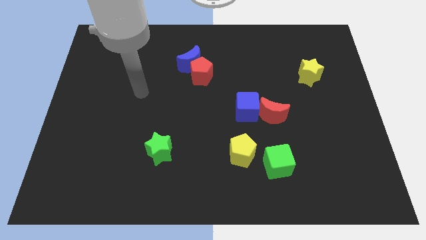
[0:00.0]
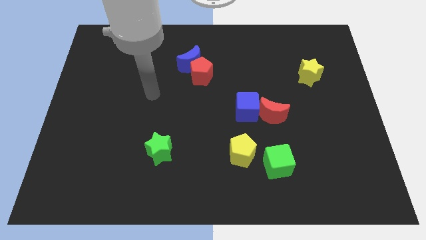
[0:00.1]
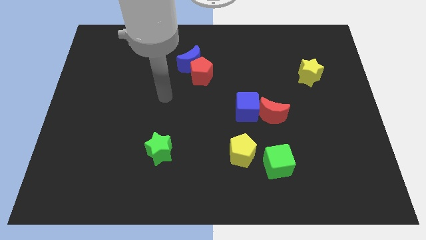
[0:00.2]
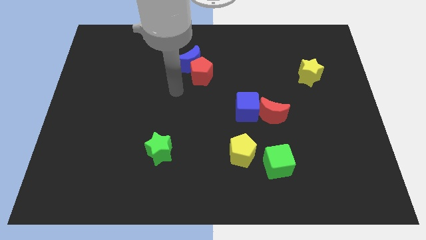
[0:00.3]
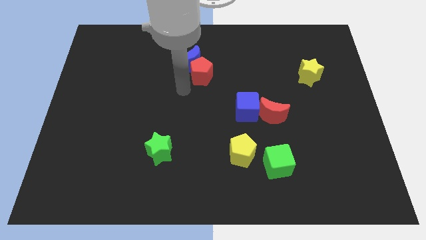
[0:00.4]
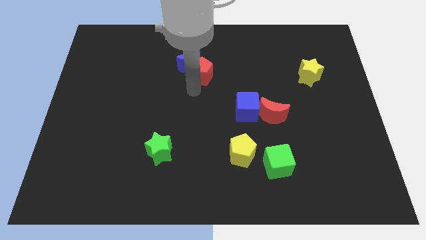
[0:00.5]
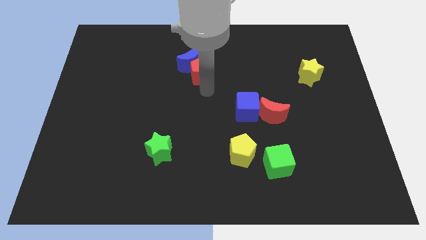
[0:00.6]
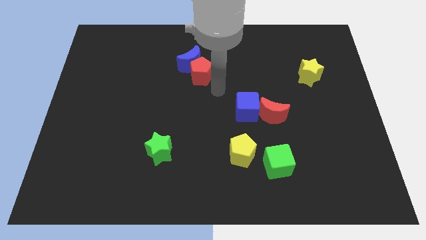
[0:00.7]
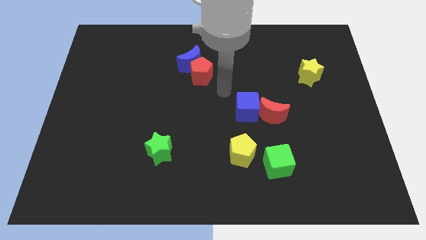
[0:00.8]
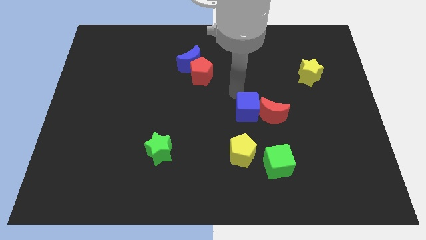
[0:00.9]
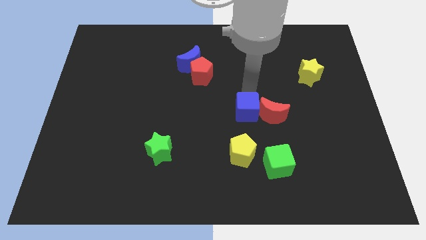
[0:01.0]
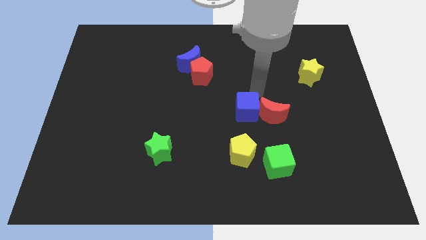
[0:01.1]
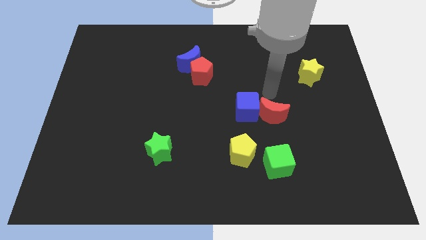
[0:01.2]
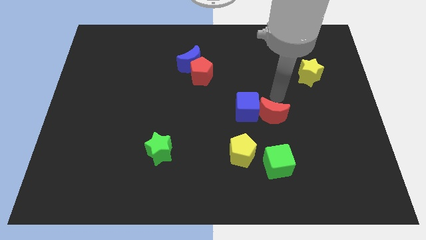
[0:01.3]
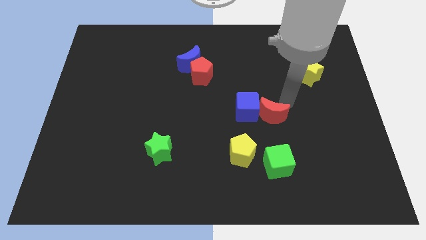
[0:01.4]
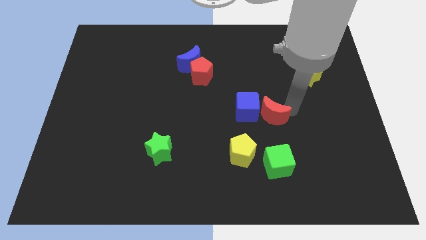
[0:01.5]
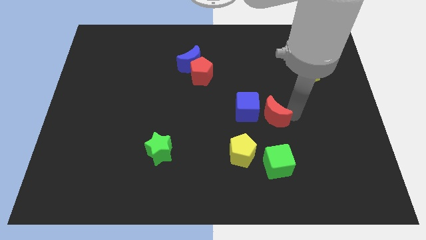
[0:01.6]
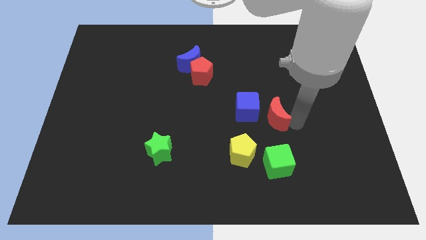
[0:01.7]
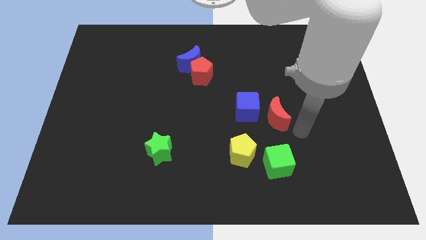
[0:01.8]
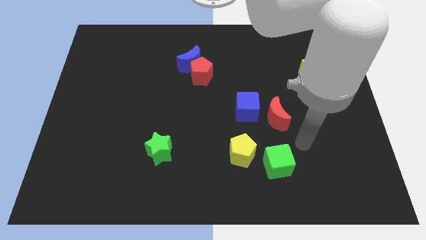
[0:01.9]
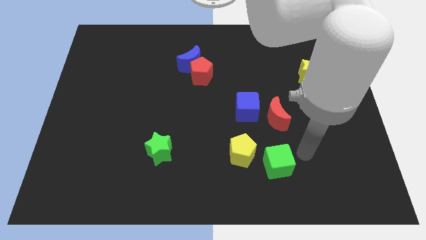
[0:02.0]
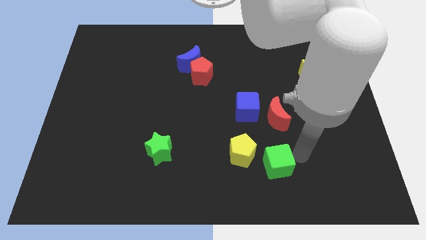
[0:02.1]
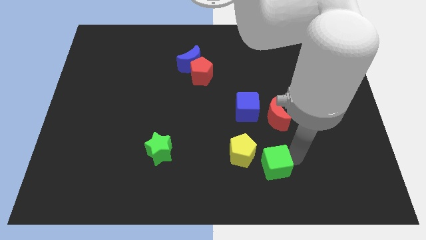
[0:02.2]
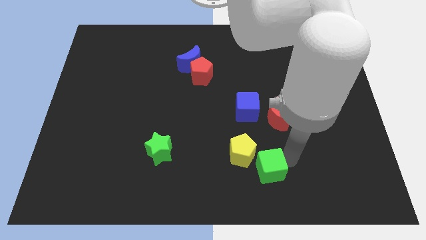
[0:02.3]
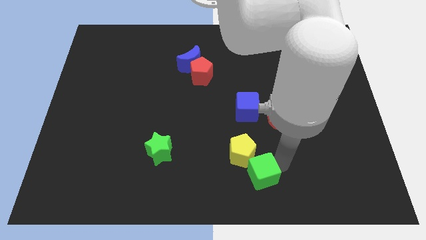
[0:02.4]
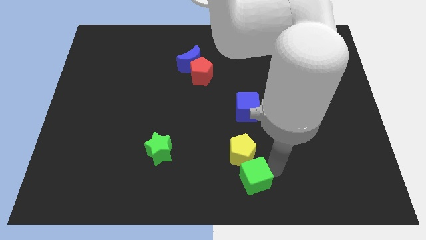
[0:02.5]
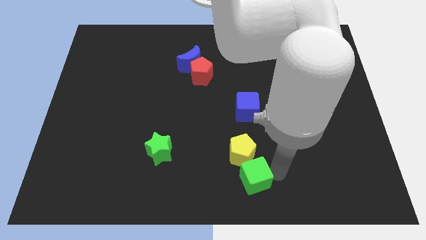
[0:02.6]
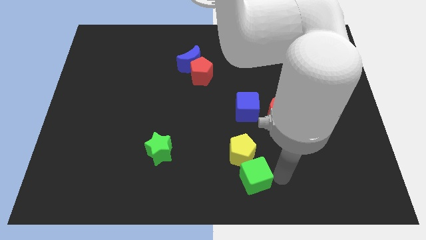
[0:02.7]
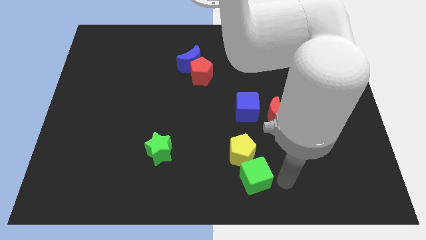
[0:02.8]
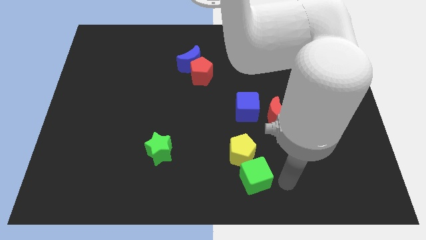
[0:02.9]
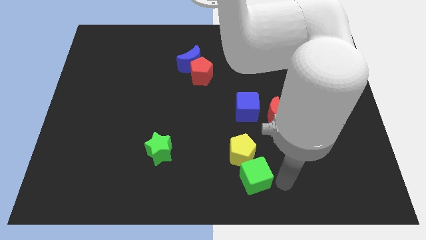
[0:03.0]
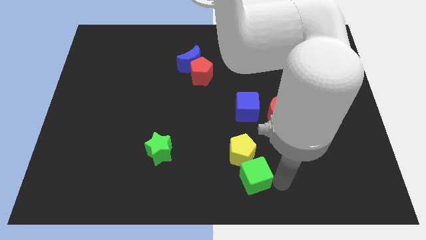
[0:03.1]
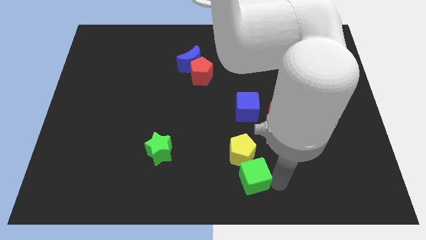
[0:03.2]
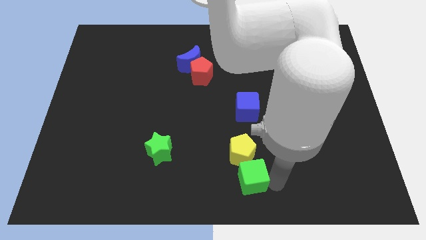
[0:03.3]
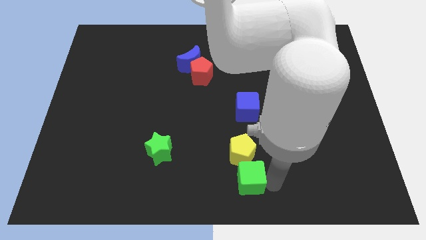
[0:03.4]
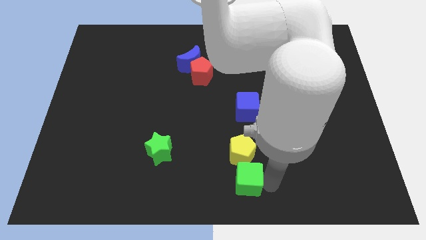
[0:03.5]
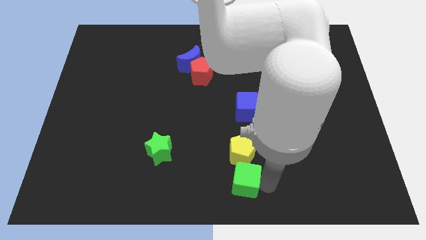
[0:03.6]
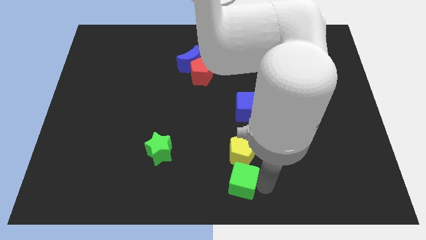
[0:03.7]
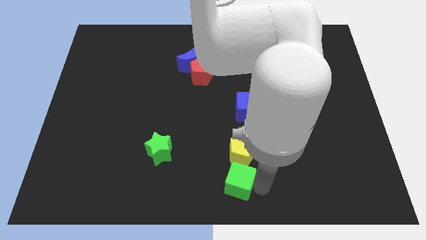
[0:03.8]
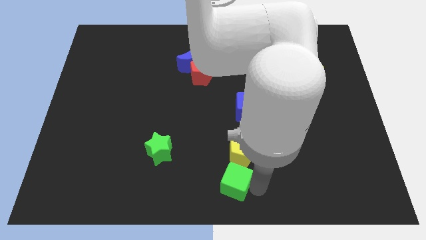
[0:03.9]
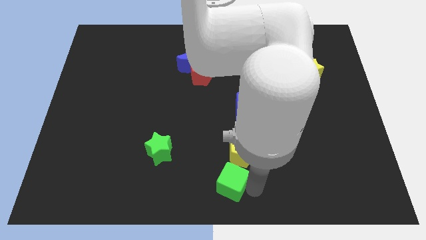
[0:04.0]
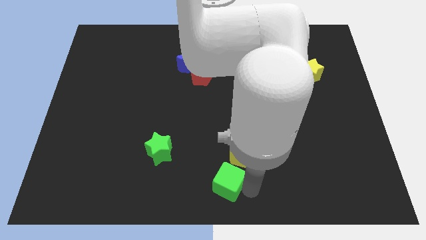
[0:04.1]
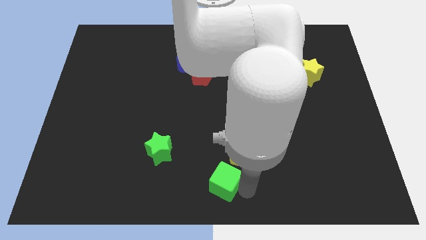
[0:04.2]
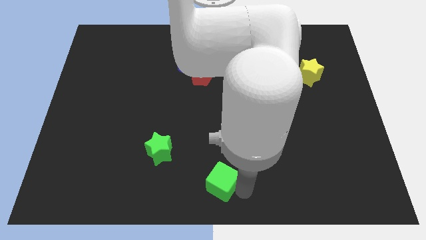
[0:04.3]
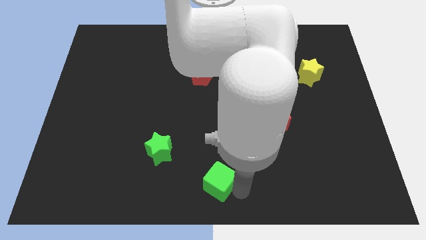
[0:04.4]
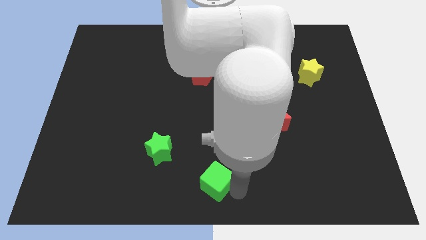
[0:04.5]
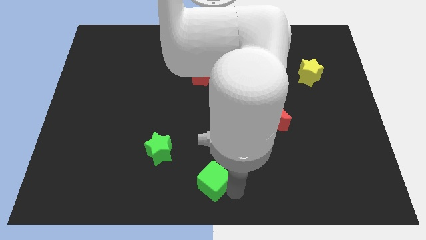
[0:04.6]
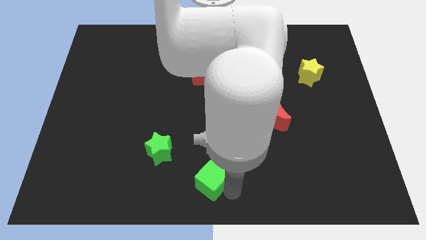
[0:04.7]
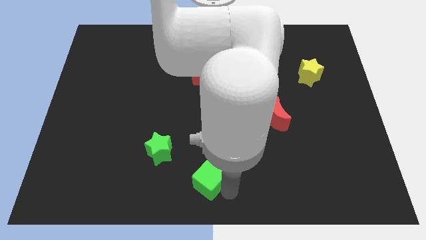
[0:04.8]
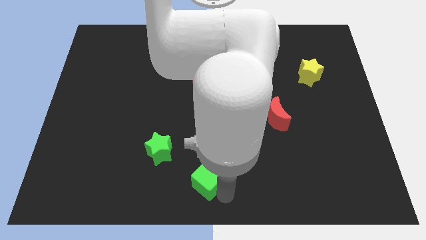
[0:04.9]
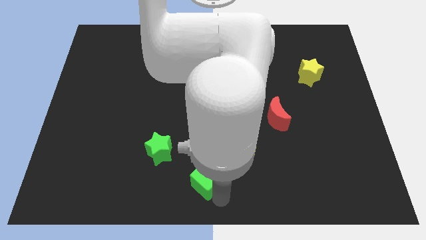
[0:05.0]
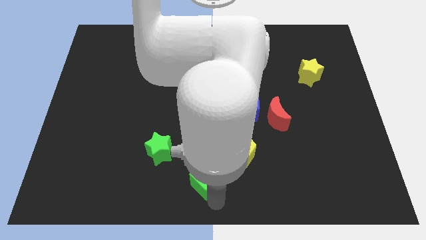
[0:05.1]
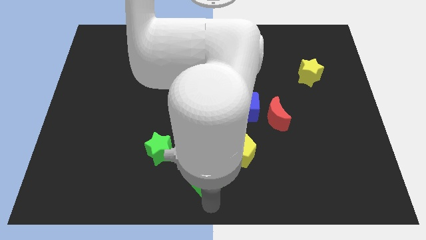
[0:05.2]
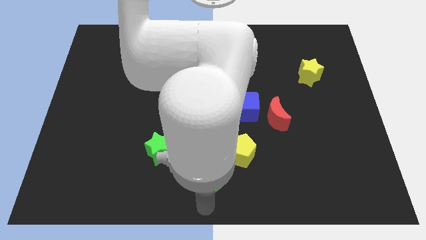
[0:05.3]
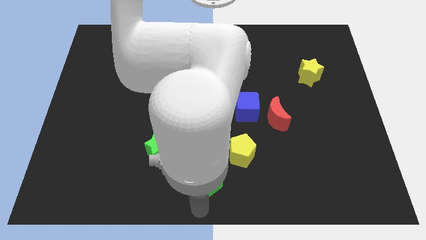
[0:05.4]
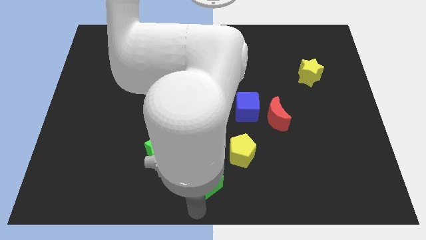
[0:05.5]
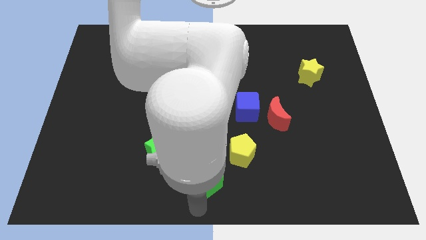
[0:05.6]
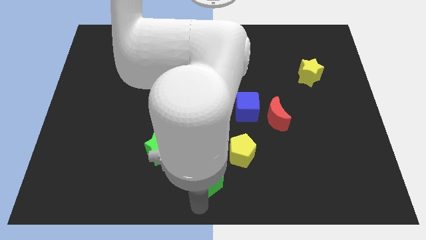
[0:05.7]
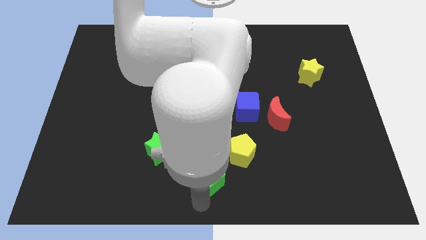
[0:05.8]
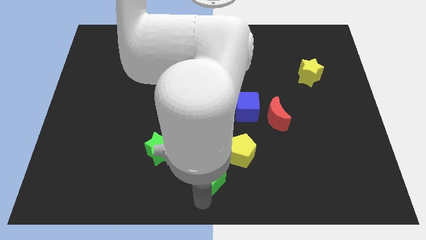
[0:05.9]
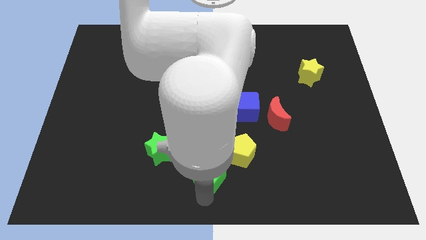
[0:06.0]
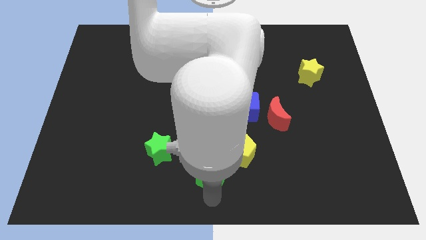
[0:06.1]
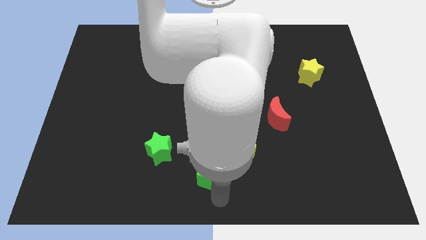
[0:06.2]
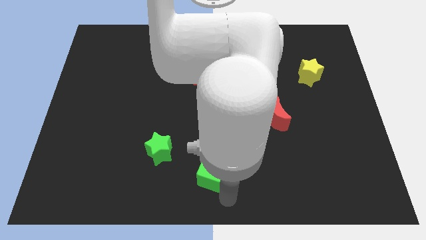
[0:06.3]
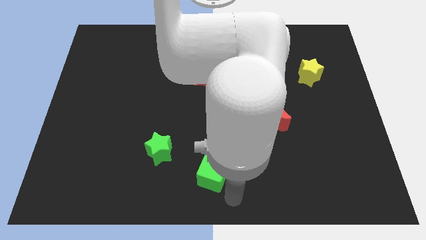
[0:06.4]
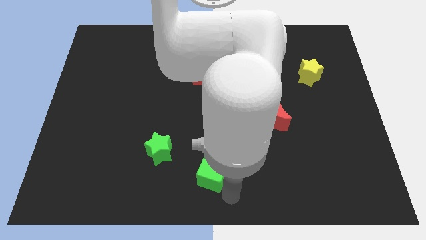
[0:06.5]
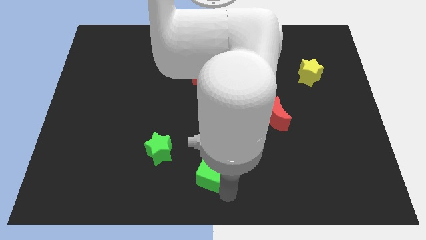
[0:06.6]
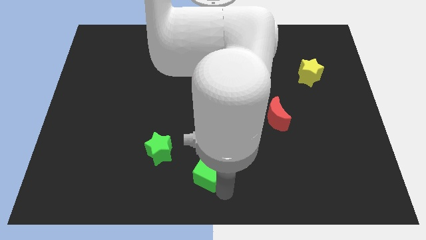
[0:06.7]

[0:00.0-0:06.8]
push the green cube left of the yellow pentagon

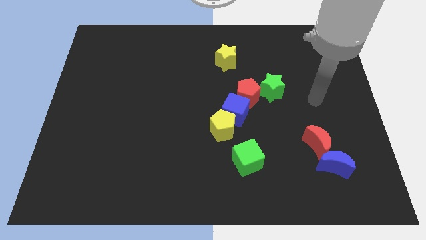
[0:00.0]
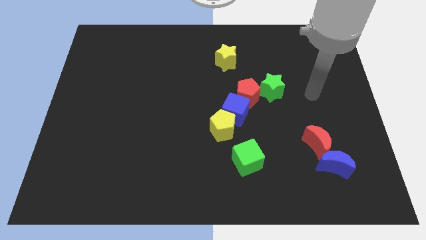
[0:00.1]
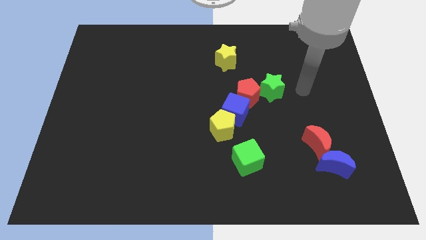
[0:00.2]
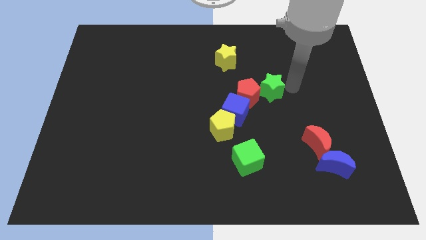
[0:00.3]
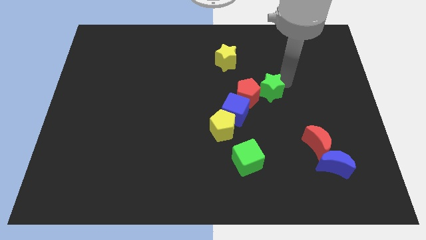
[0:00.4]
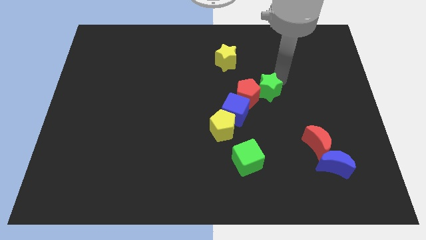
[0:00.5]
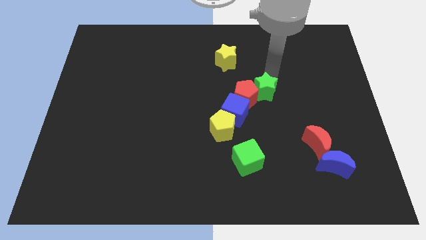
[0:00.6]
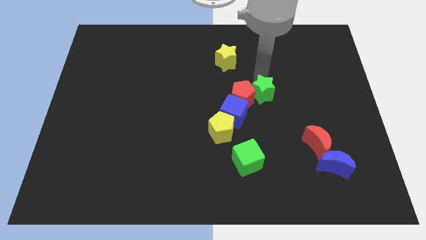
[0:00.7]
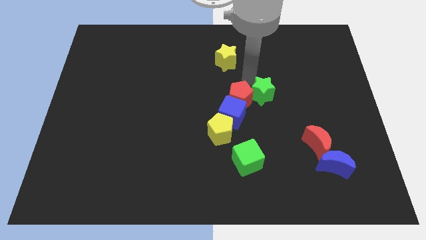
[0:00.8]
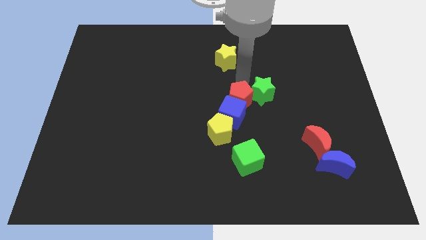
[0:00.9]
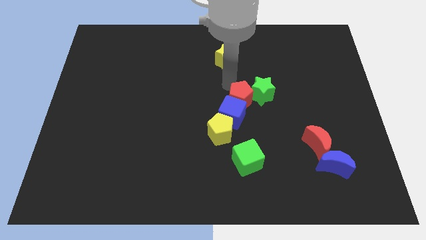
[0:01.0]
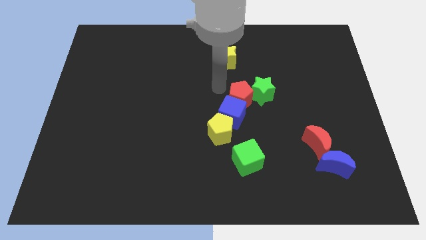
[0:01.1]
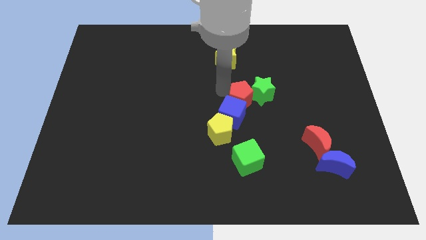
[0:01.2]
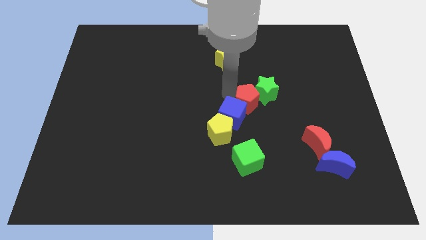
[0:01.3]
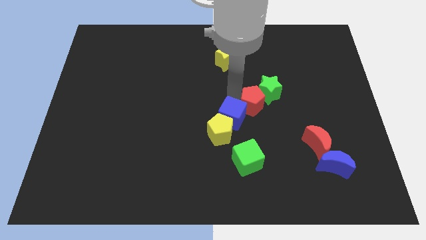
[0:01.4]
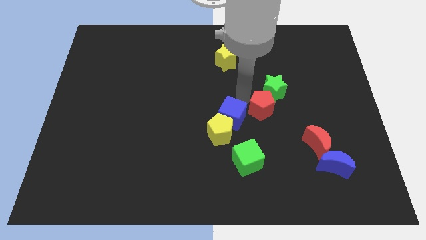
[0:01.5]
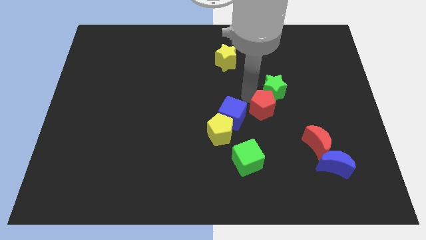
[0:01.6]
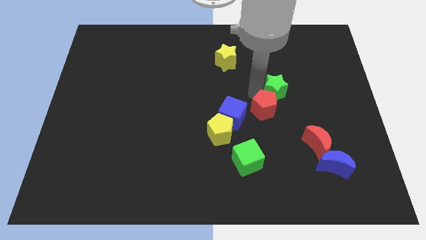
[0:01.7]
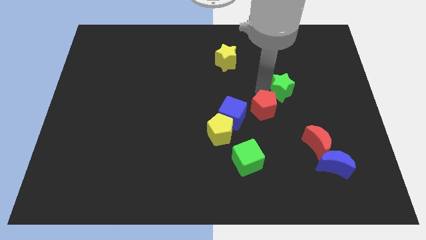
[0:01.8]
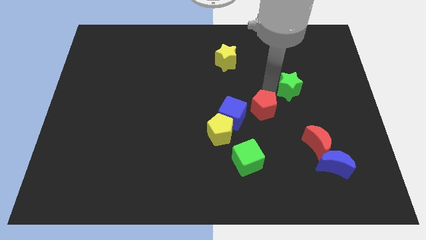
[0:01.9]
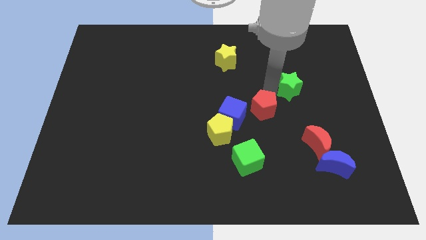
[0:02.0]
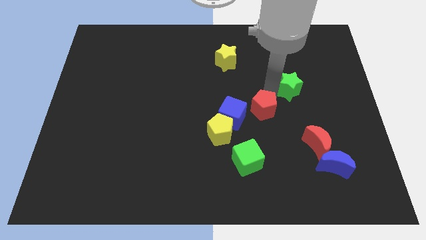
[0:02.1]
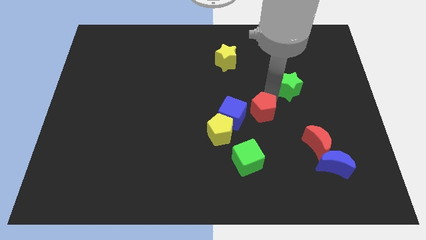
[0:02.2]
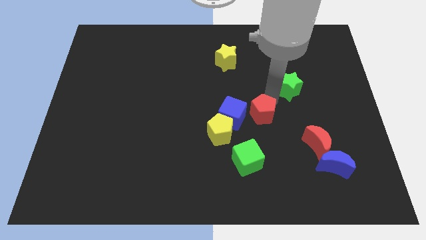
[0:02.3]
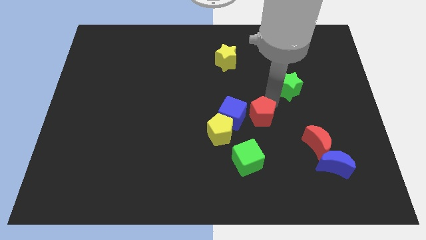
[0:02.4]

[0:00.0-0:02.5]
move the red pentagon to the bottom right of the blue cube
